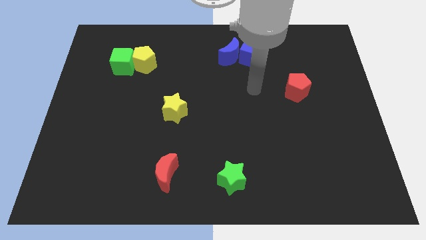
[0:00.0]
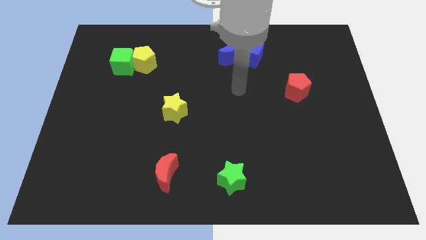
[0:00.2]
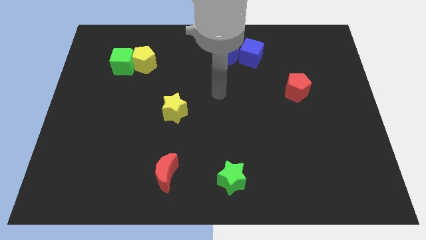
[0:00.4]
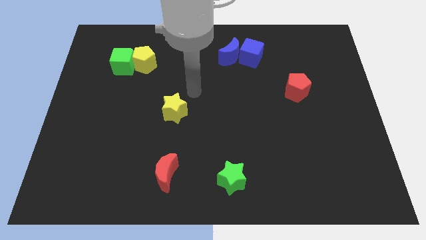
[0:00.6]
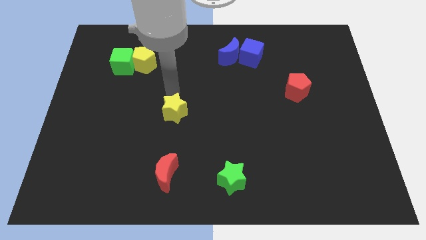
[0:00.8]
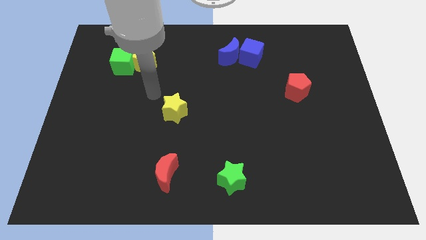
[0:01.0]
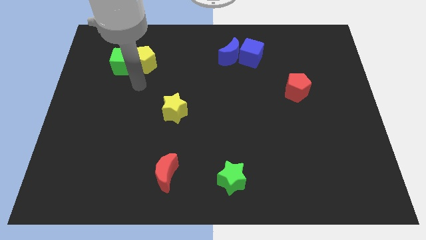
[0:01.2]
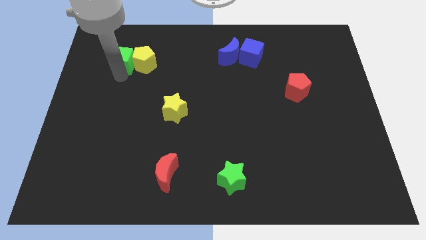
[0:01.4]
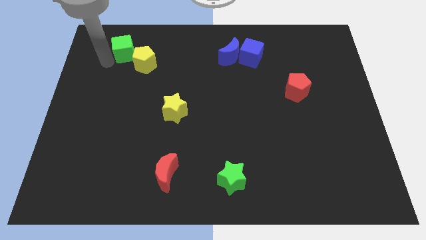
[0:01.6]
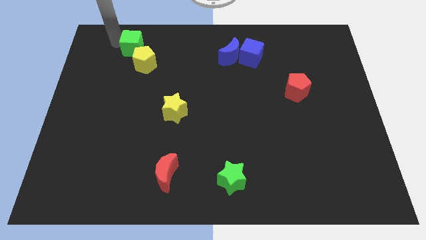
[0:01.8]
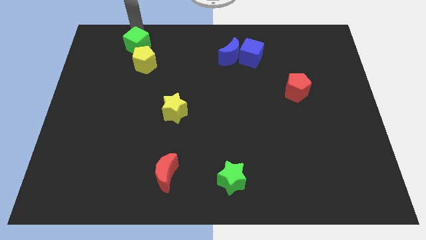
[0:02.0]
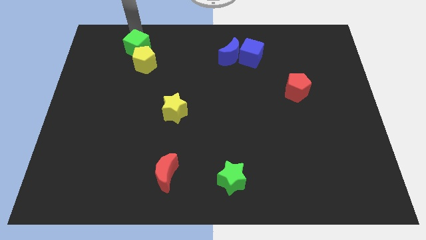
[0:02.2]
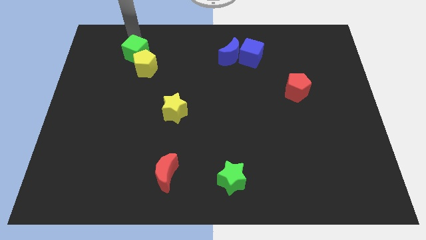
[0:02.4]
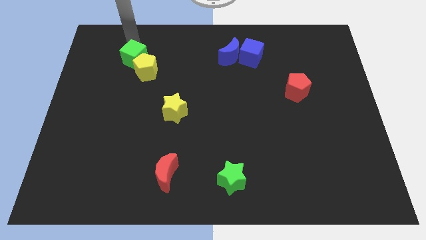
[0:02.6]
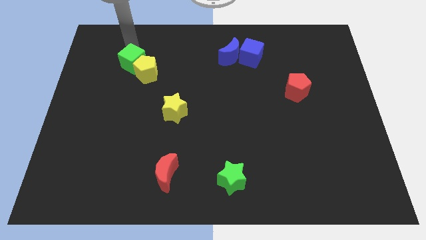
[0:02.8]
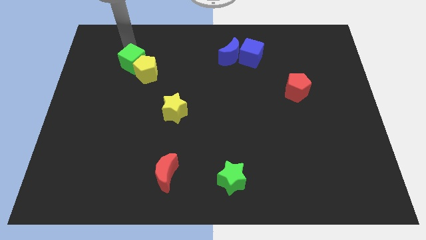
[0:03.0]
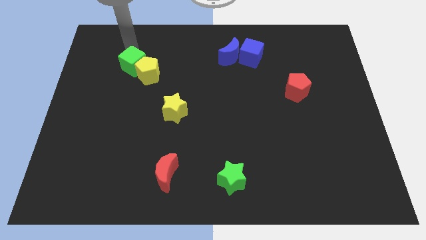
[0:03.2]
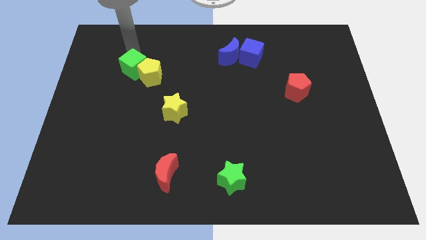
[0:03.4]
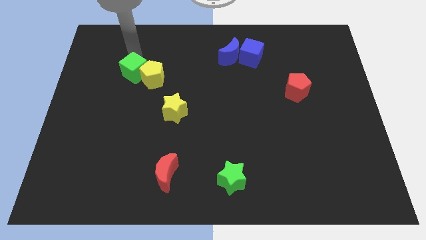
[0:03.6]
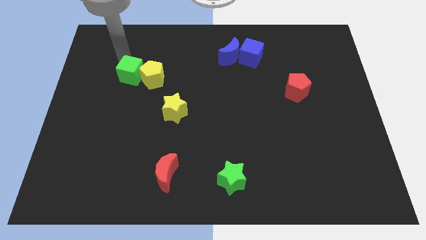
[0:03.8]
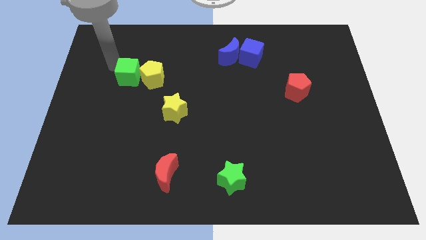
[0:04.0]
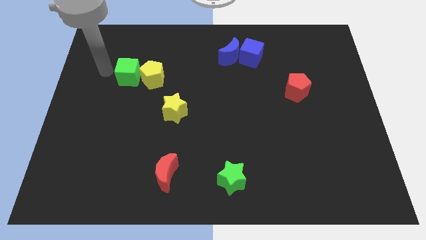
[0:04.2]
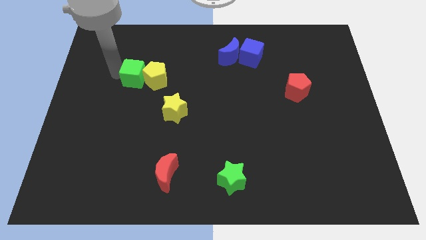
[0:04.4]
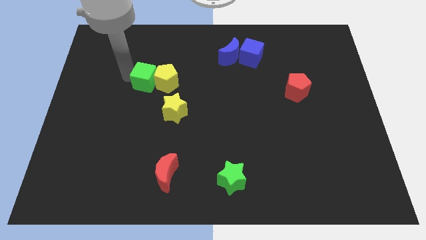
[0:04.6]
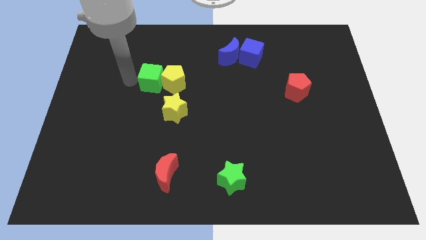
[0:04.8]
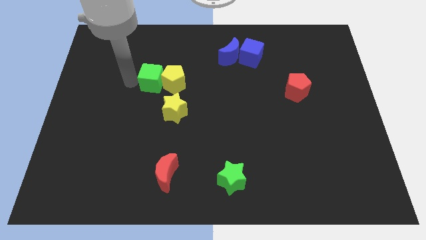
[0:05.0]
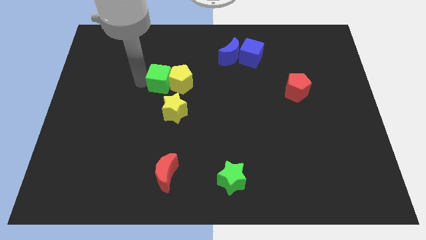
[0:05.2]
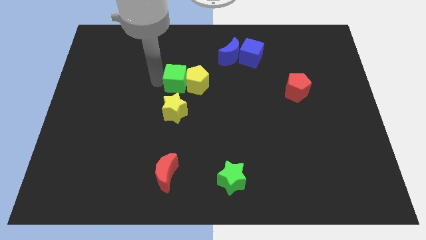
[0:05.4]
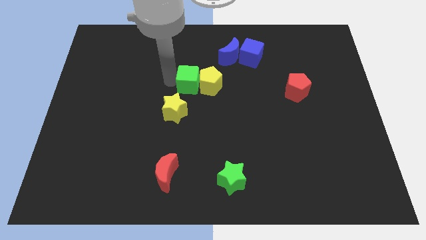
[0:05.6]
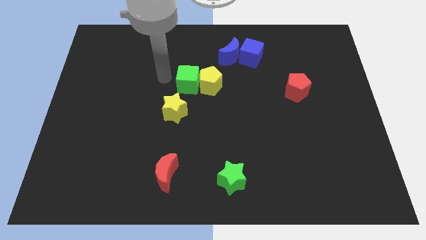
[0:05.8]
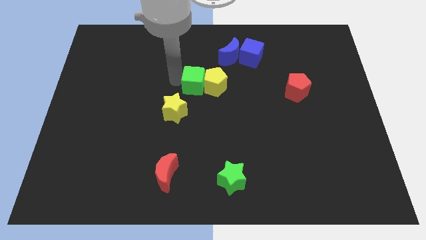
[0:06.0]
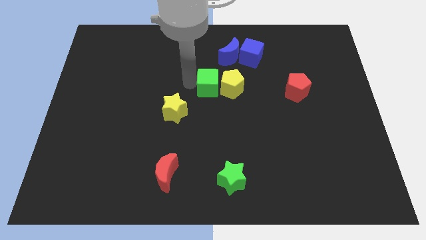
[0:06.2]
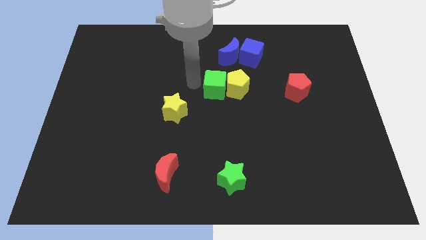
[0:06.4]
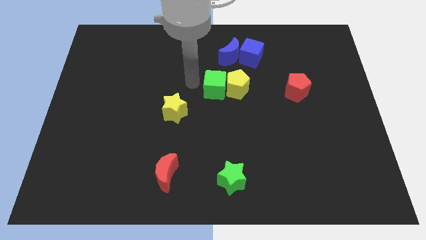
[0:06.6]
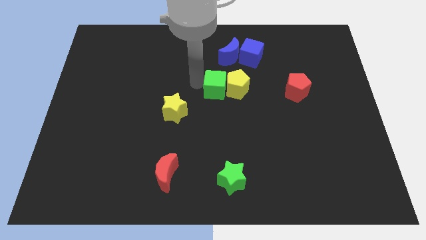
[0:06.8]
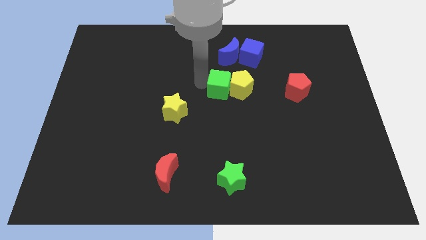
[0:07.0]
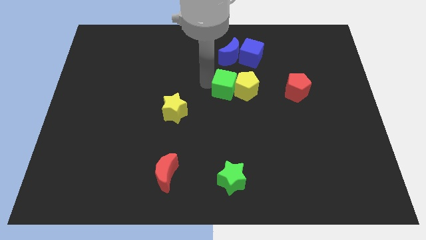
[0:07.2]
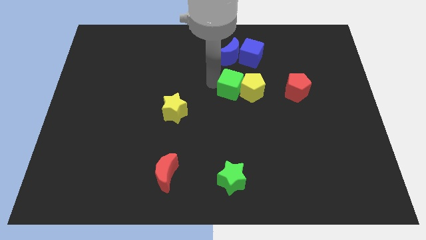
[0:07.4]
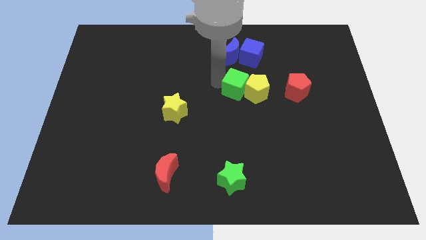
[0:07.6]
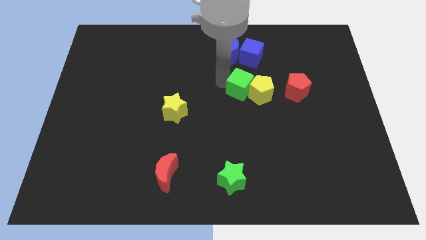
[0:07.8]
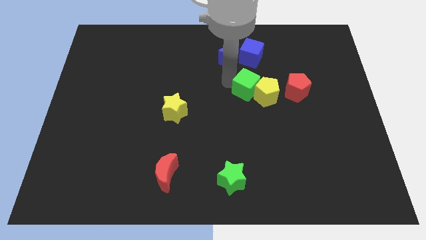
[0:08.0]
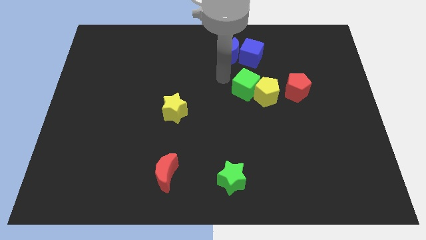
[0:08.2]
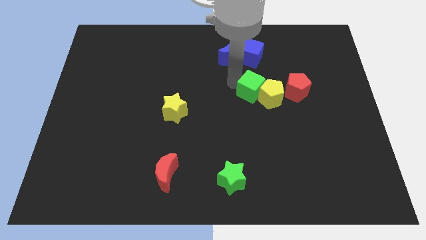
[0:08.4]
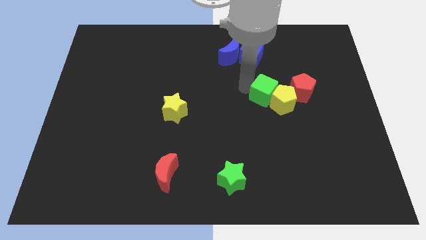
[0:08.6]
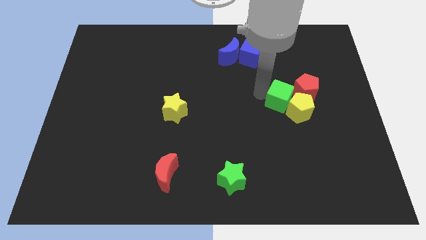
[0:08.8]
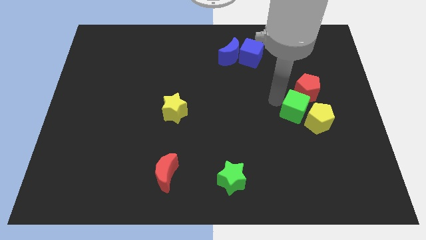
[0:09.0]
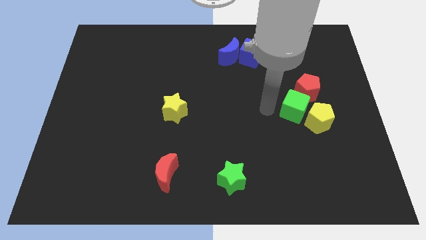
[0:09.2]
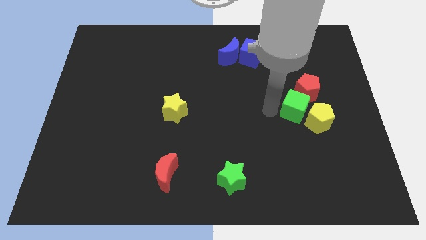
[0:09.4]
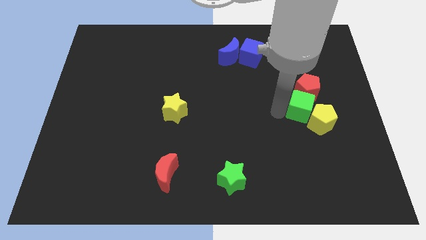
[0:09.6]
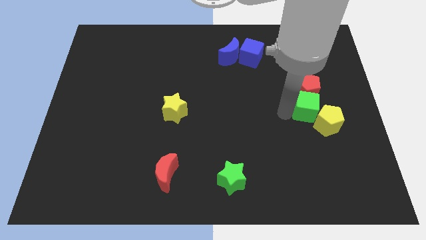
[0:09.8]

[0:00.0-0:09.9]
slide the green cube to the bottom right of the red pentagon

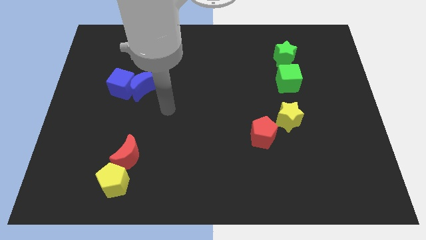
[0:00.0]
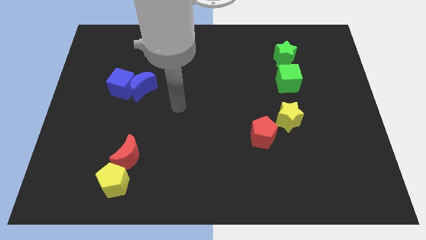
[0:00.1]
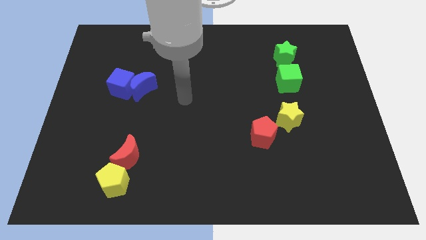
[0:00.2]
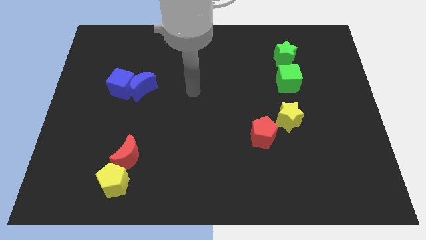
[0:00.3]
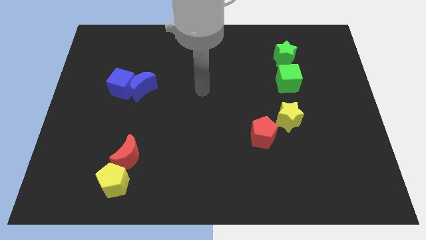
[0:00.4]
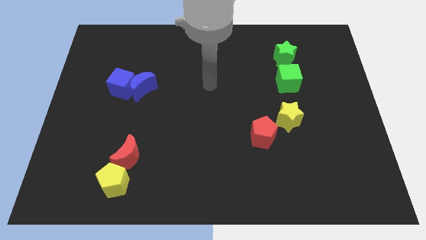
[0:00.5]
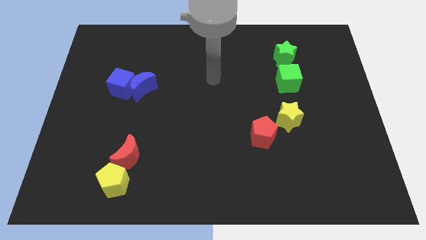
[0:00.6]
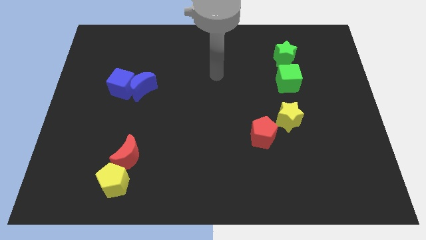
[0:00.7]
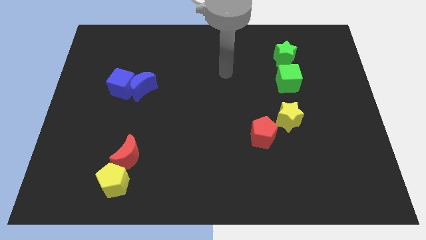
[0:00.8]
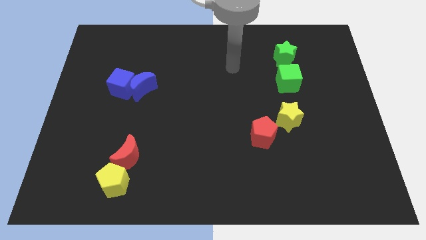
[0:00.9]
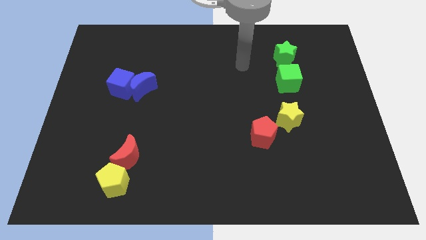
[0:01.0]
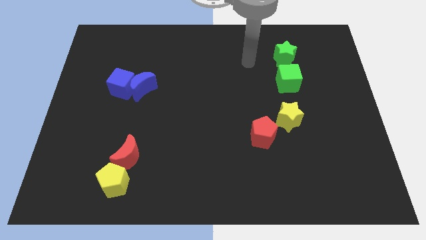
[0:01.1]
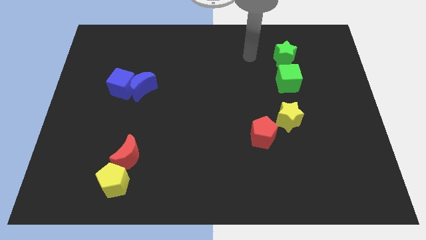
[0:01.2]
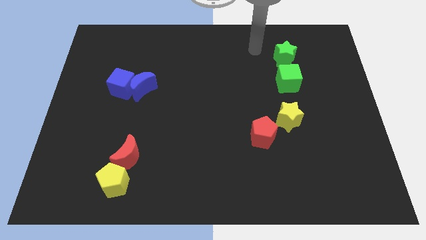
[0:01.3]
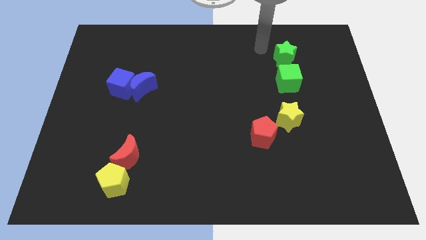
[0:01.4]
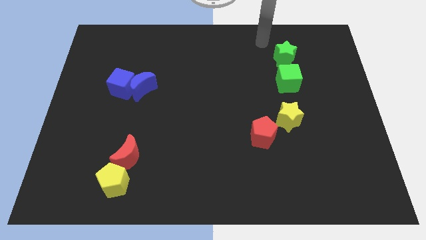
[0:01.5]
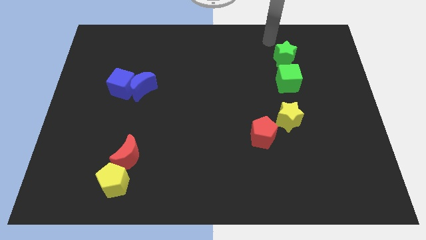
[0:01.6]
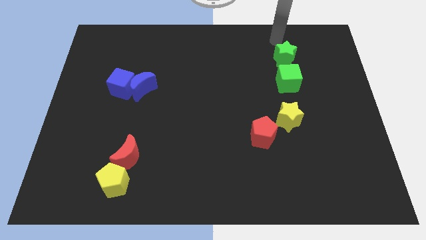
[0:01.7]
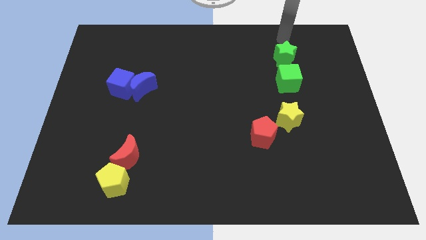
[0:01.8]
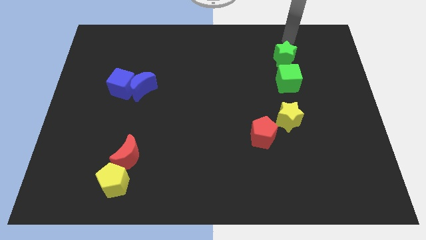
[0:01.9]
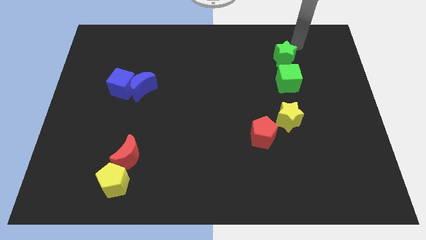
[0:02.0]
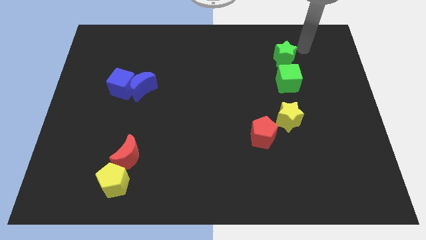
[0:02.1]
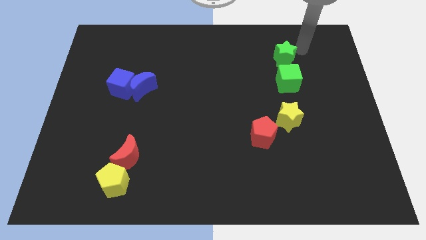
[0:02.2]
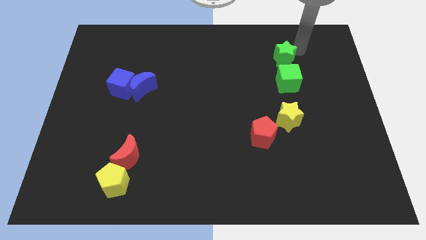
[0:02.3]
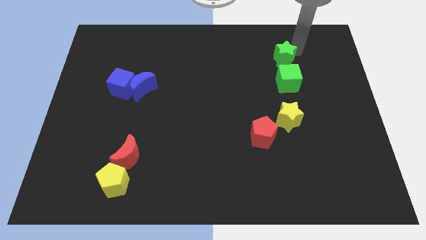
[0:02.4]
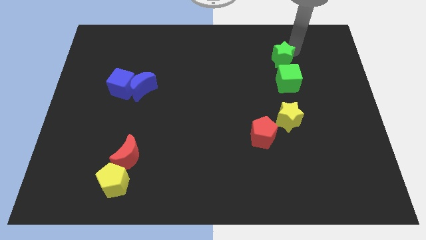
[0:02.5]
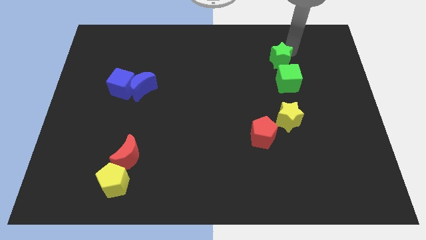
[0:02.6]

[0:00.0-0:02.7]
slide the green star to the top left side of the green cube

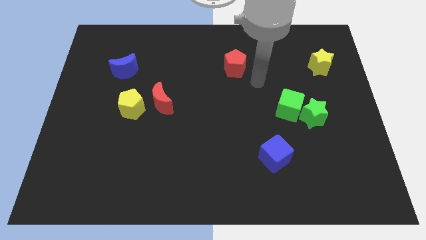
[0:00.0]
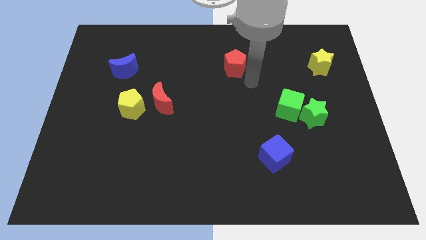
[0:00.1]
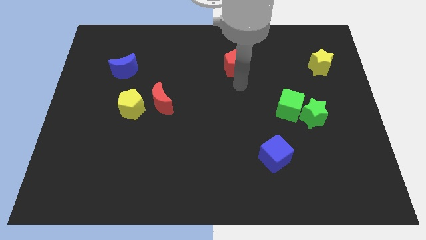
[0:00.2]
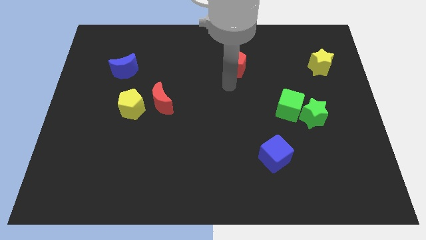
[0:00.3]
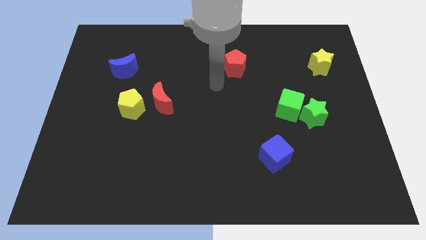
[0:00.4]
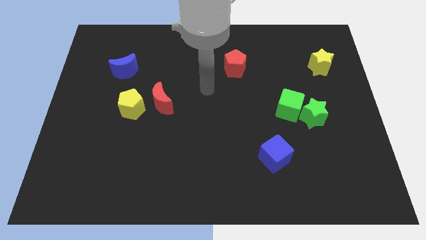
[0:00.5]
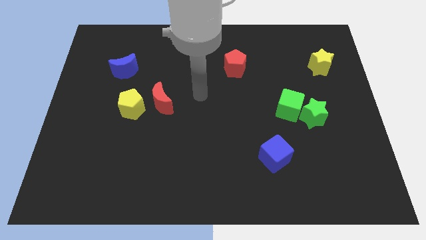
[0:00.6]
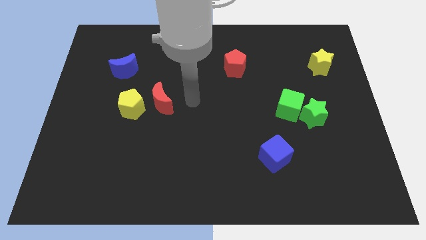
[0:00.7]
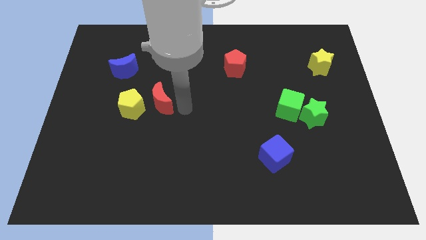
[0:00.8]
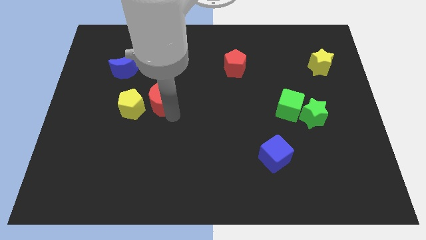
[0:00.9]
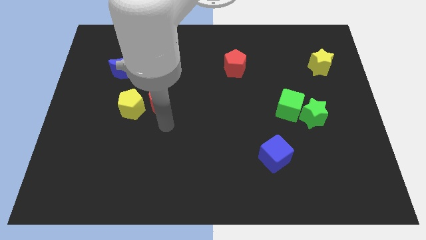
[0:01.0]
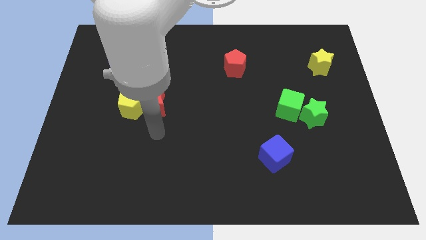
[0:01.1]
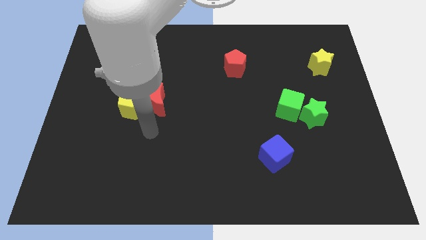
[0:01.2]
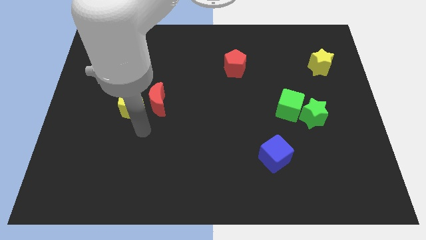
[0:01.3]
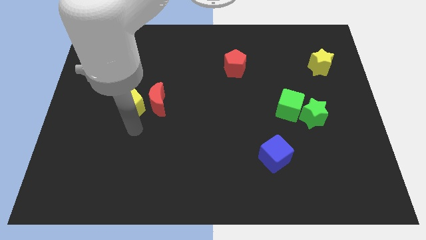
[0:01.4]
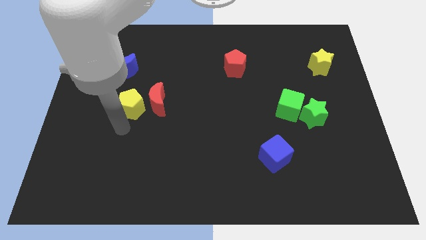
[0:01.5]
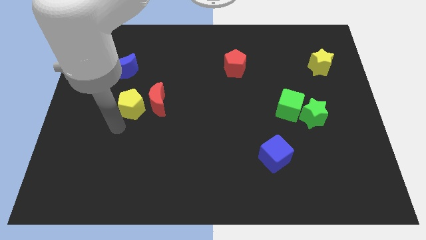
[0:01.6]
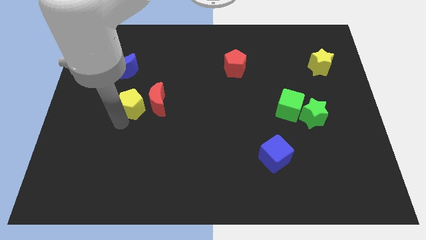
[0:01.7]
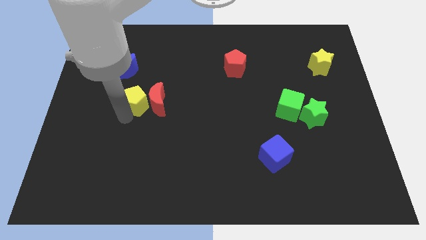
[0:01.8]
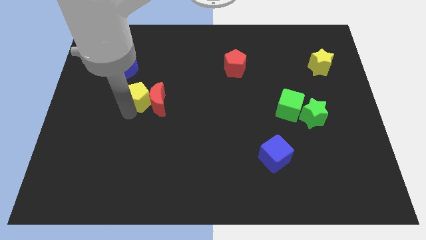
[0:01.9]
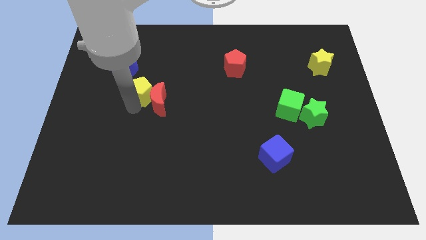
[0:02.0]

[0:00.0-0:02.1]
move the yellow pentagon to the top side of the red moon
